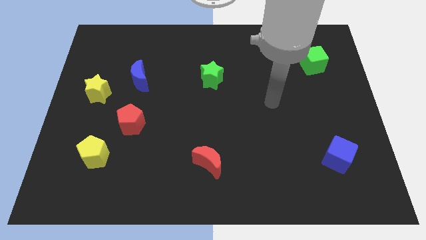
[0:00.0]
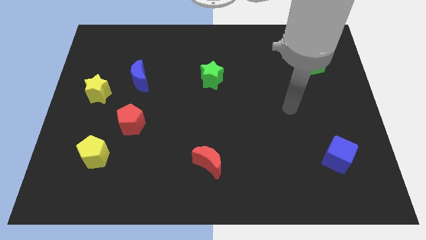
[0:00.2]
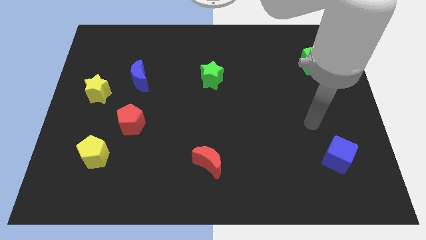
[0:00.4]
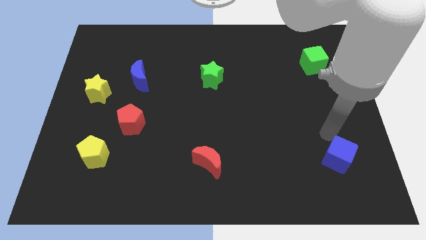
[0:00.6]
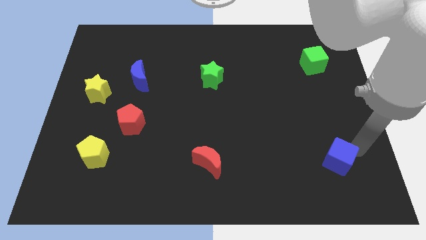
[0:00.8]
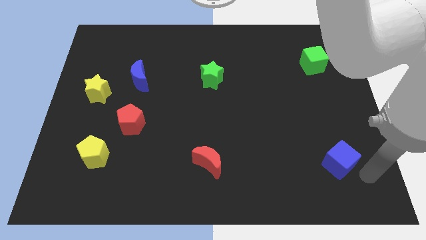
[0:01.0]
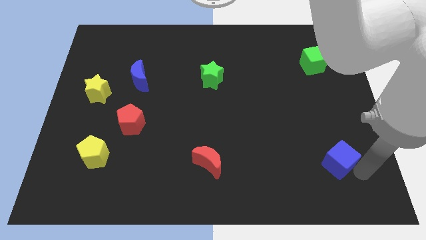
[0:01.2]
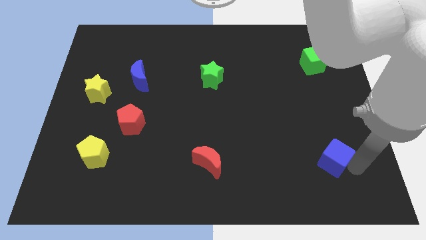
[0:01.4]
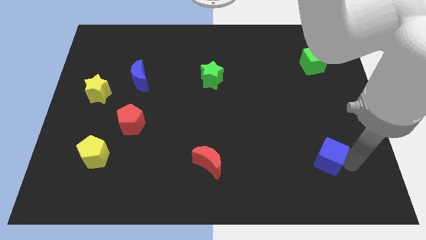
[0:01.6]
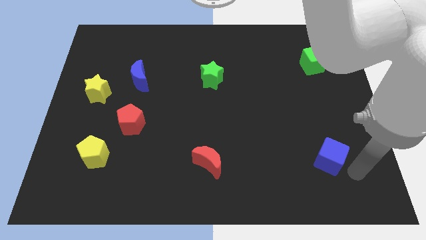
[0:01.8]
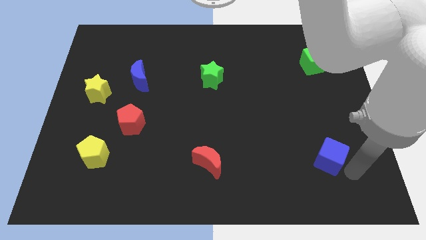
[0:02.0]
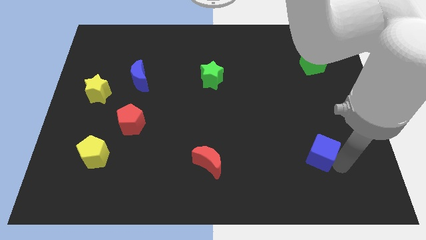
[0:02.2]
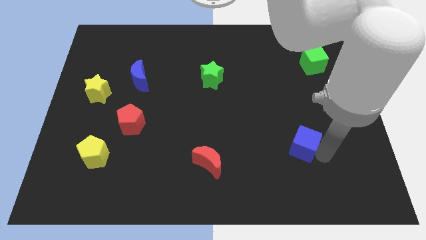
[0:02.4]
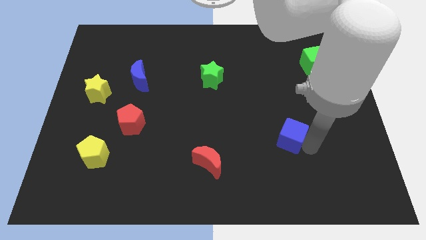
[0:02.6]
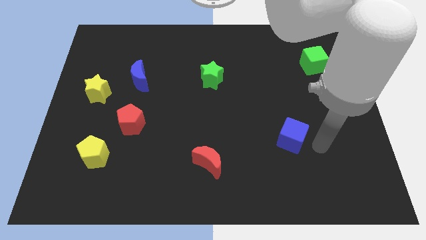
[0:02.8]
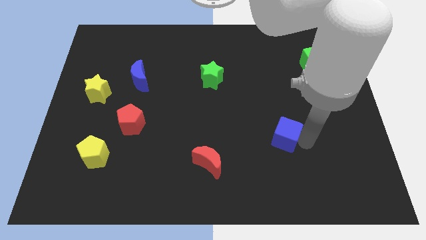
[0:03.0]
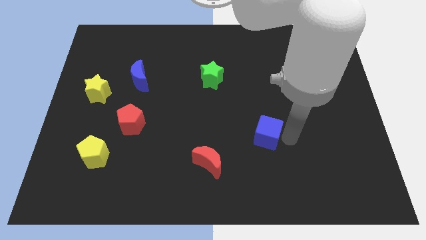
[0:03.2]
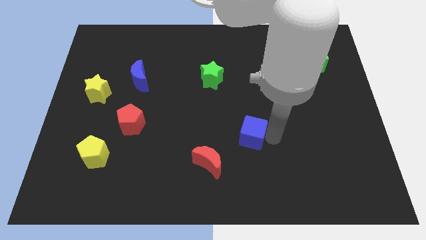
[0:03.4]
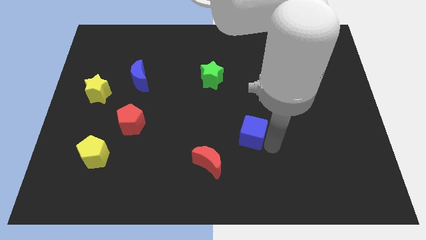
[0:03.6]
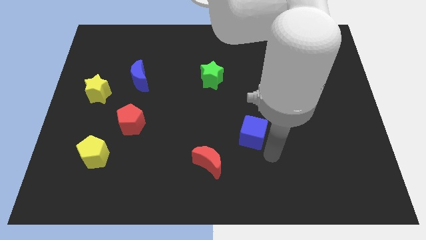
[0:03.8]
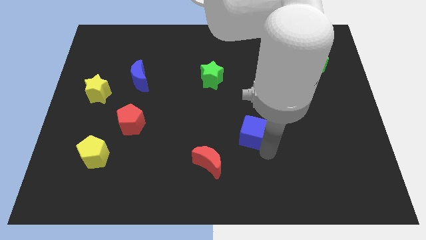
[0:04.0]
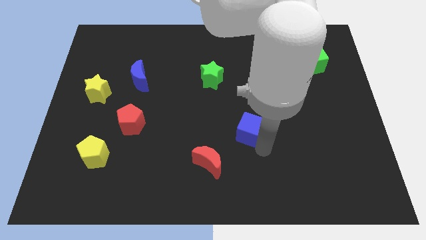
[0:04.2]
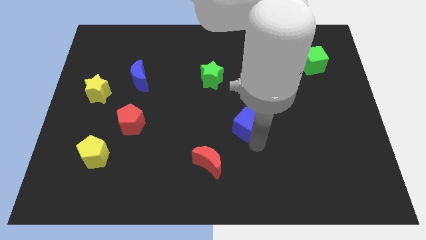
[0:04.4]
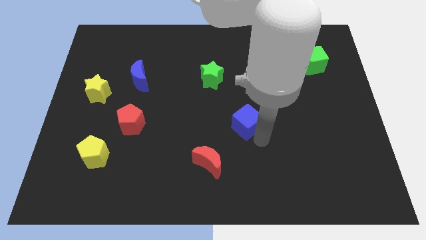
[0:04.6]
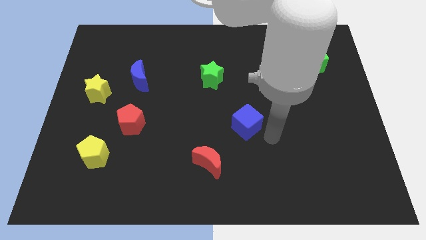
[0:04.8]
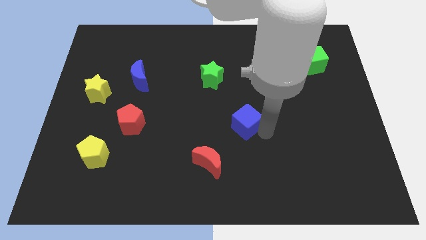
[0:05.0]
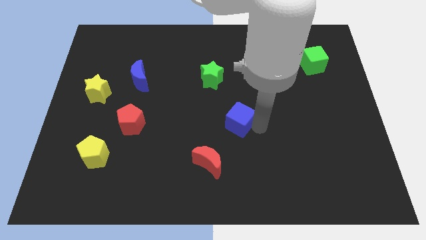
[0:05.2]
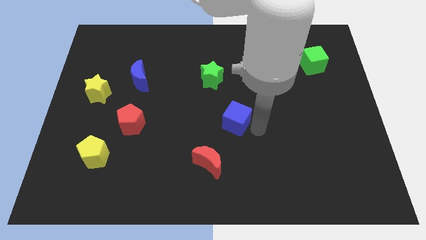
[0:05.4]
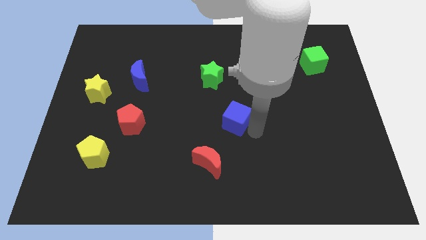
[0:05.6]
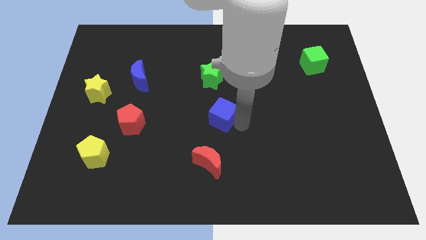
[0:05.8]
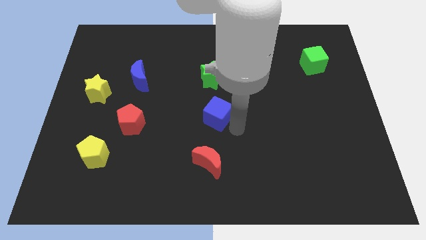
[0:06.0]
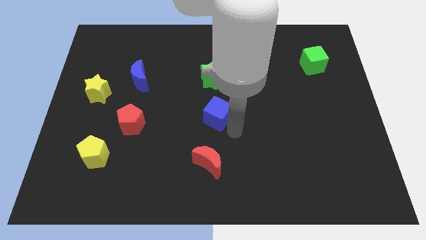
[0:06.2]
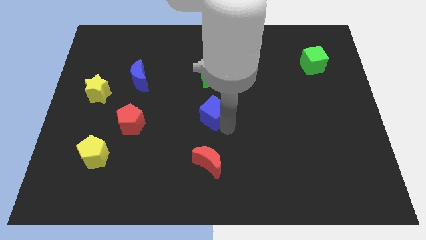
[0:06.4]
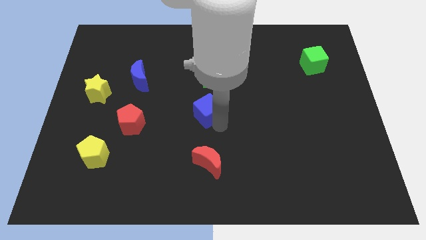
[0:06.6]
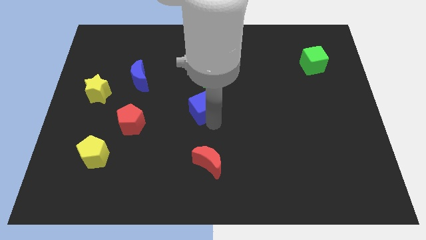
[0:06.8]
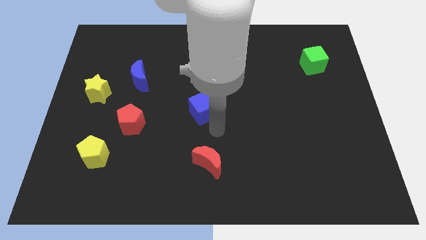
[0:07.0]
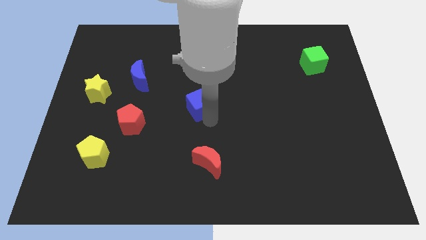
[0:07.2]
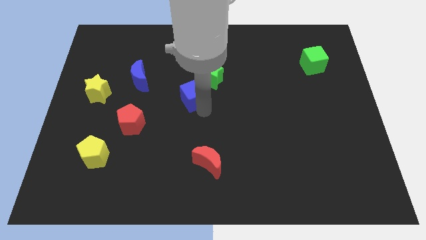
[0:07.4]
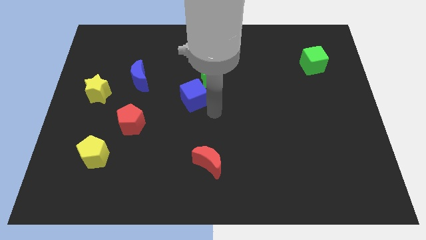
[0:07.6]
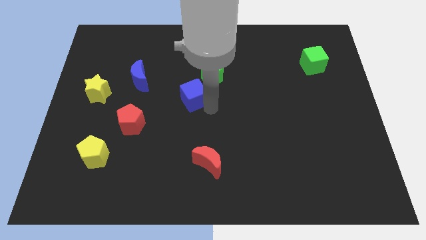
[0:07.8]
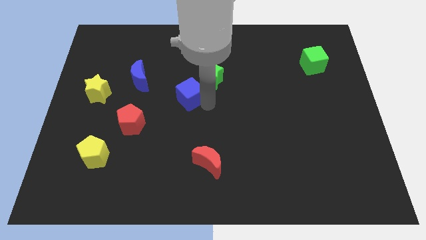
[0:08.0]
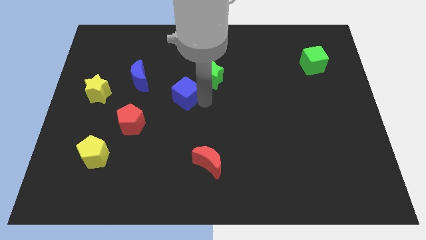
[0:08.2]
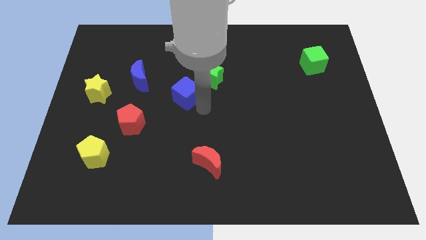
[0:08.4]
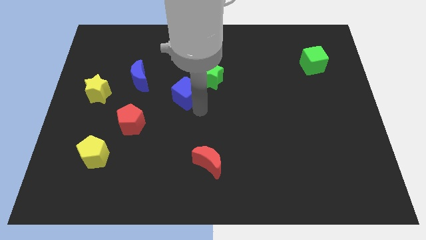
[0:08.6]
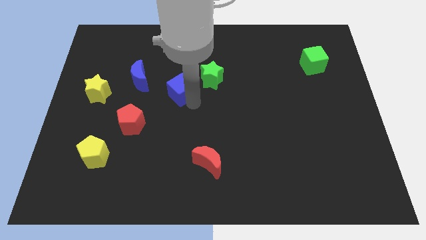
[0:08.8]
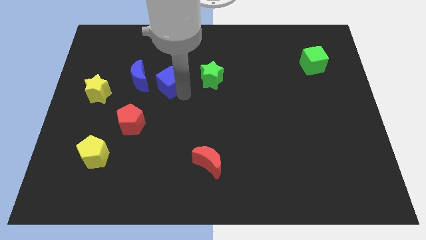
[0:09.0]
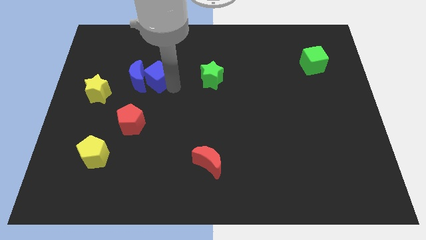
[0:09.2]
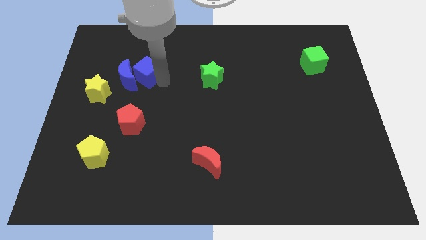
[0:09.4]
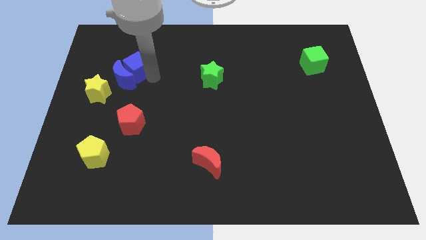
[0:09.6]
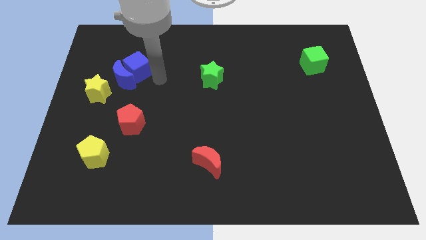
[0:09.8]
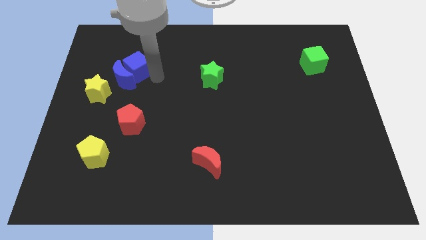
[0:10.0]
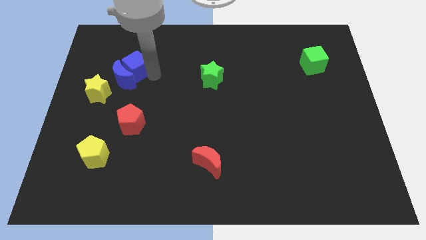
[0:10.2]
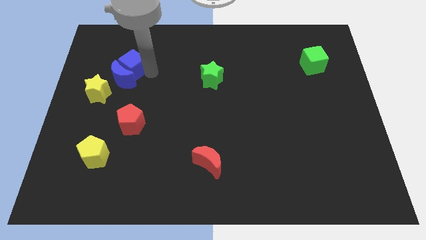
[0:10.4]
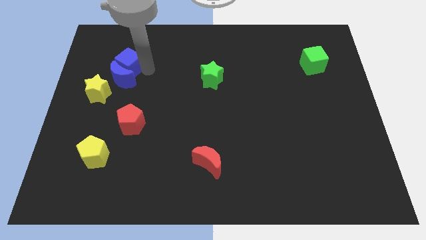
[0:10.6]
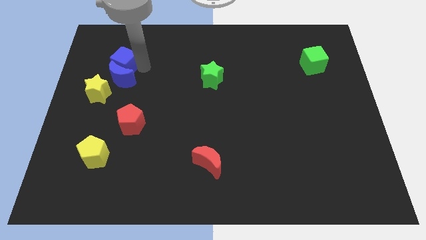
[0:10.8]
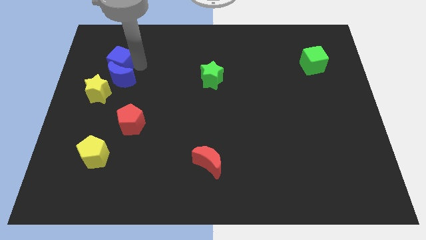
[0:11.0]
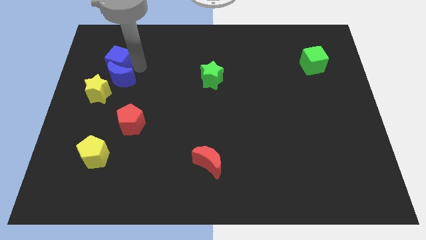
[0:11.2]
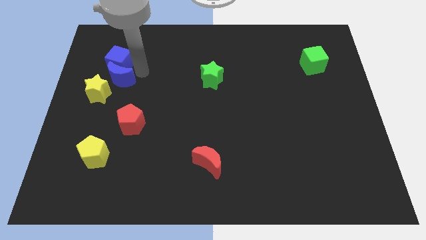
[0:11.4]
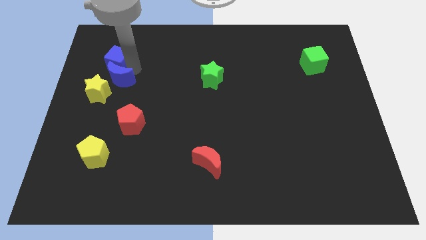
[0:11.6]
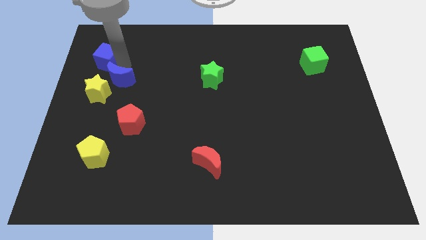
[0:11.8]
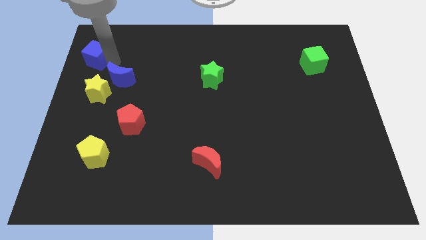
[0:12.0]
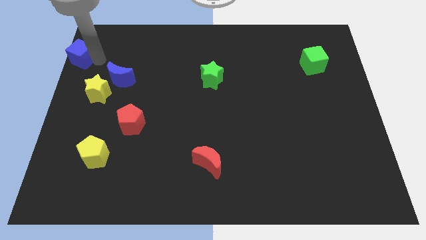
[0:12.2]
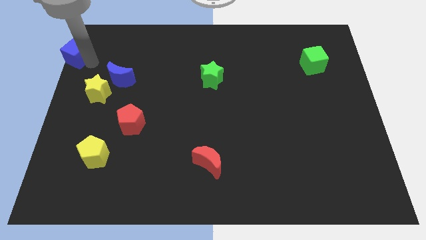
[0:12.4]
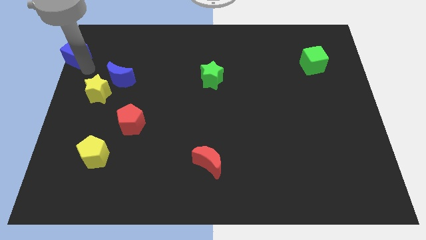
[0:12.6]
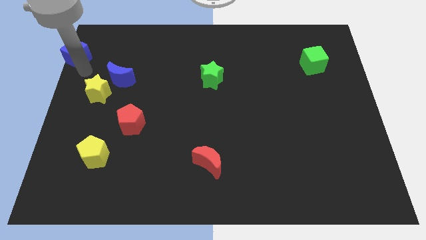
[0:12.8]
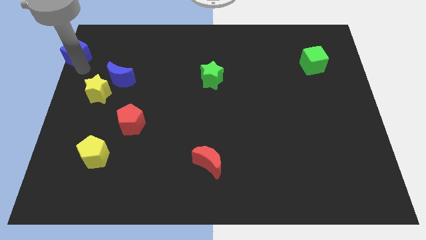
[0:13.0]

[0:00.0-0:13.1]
move the blue cube to the top left

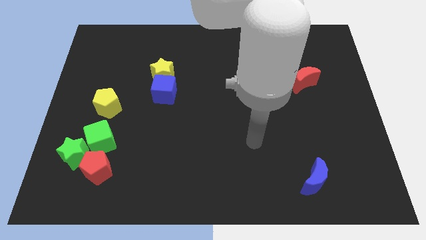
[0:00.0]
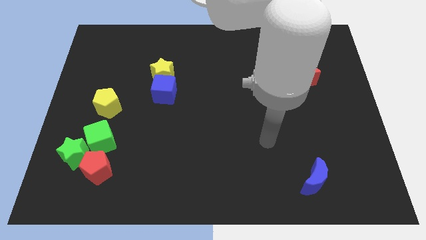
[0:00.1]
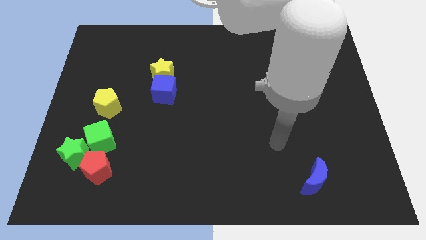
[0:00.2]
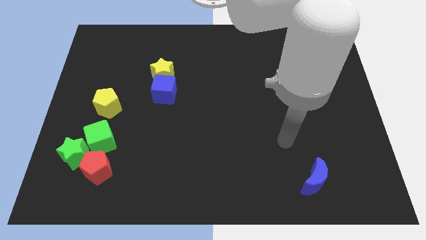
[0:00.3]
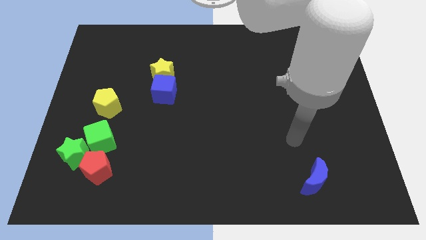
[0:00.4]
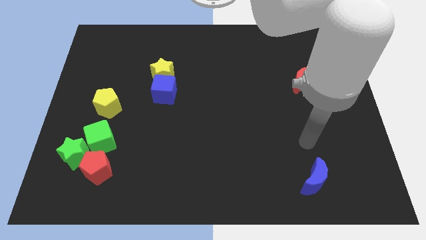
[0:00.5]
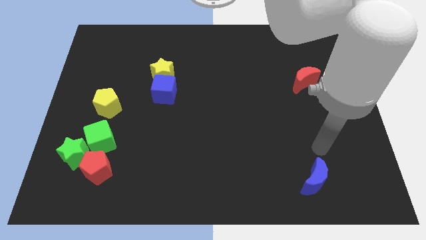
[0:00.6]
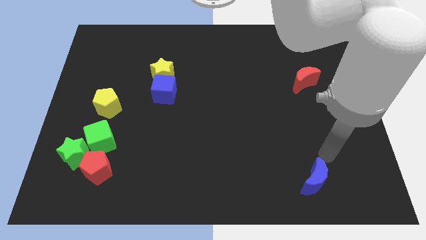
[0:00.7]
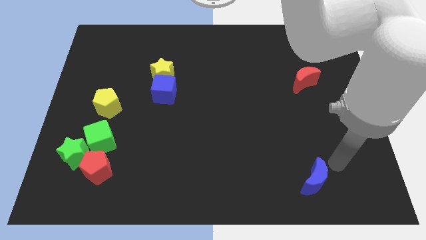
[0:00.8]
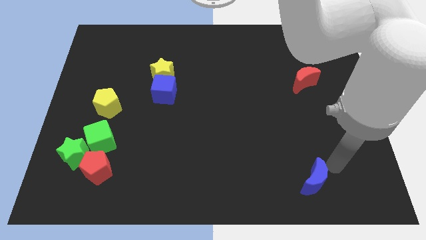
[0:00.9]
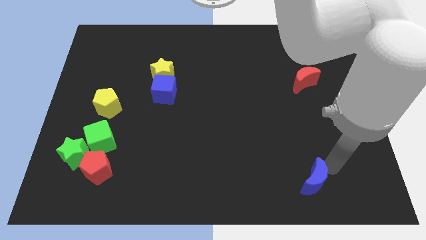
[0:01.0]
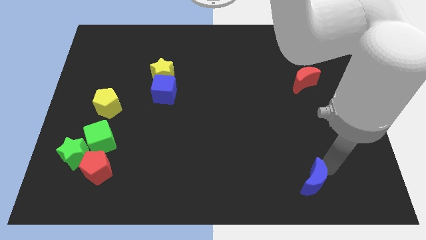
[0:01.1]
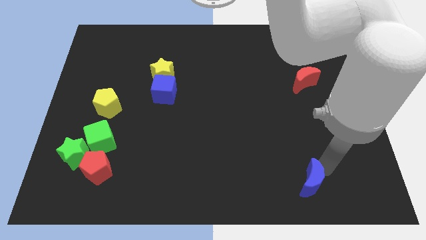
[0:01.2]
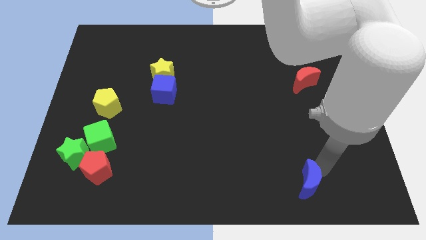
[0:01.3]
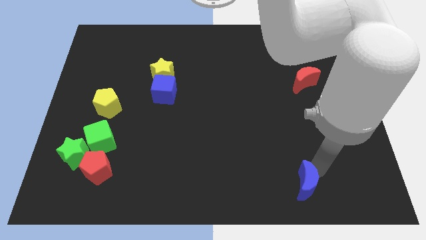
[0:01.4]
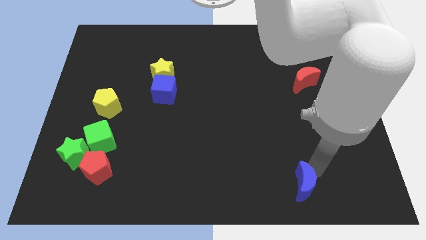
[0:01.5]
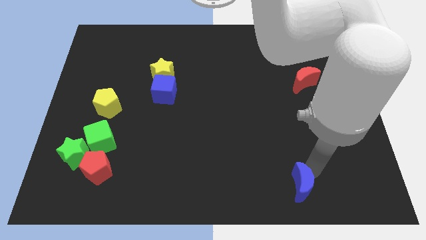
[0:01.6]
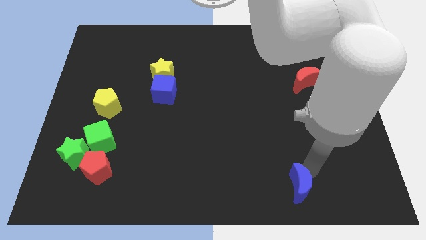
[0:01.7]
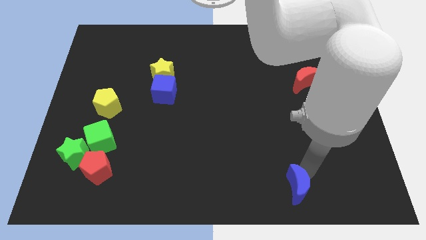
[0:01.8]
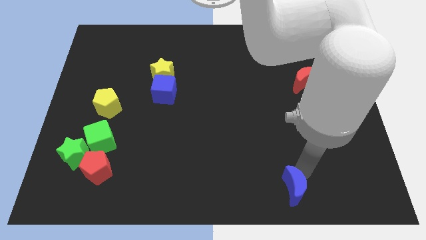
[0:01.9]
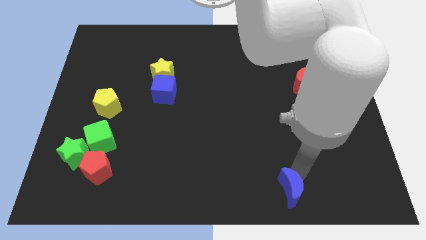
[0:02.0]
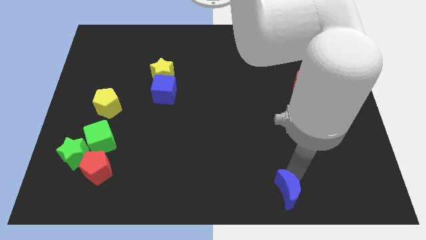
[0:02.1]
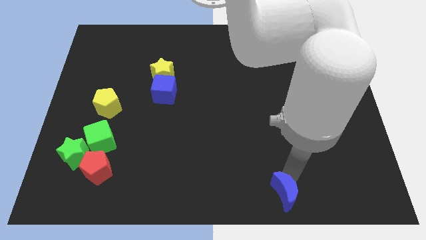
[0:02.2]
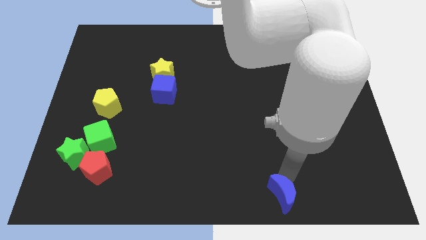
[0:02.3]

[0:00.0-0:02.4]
slide the blue moon to the bottom side
